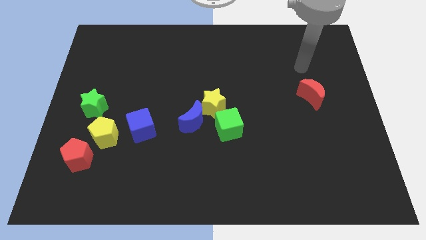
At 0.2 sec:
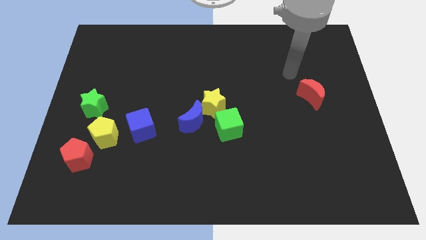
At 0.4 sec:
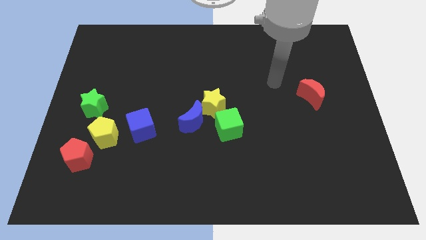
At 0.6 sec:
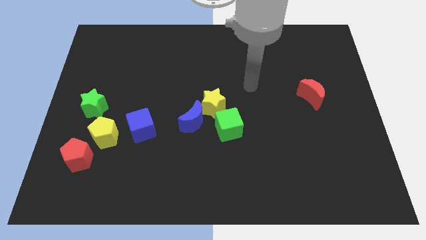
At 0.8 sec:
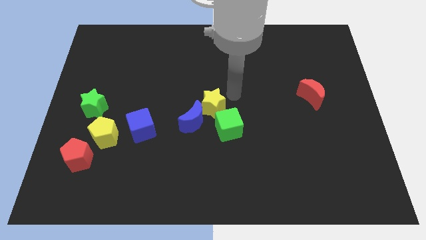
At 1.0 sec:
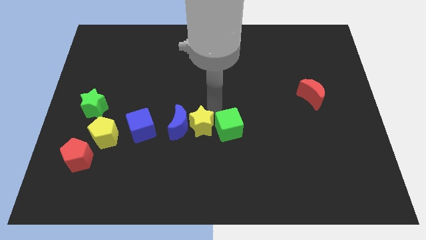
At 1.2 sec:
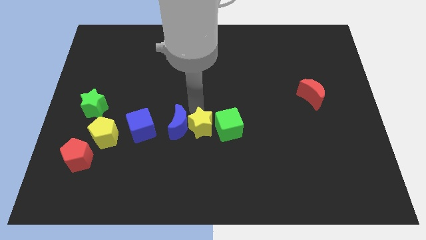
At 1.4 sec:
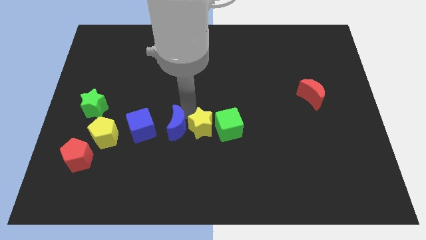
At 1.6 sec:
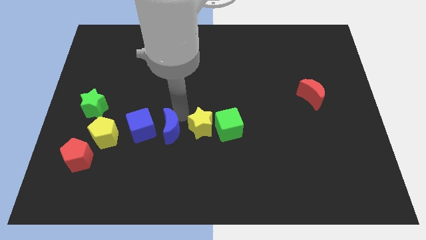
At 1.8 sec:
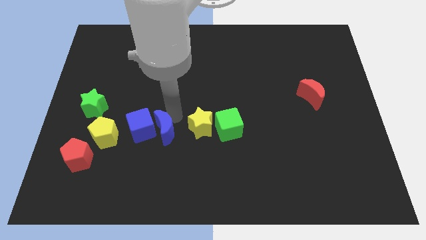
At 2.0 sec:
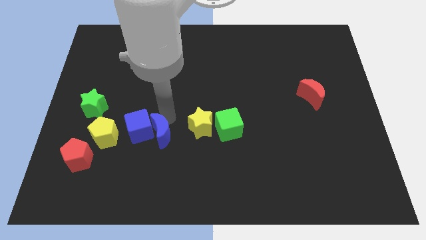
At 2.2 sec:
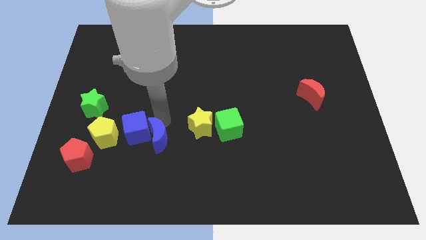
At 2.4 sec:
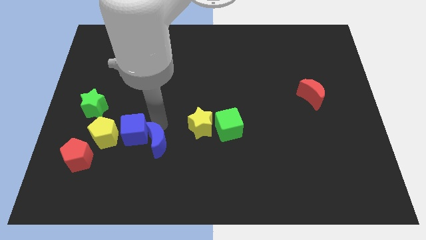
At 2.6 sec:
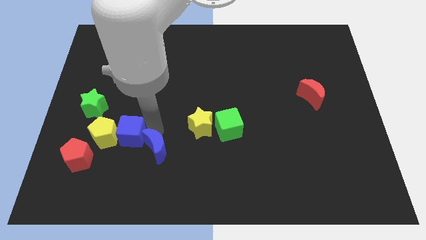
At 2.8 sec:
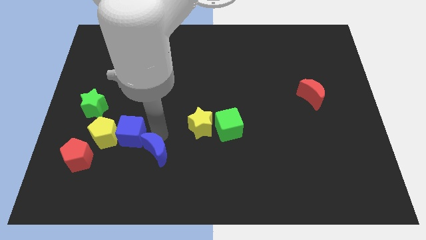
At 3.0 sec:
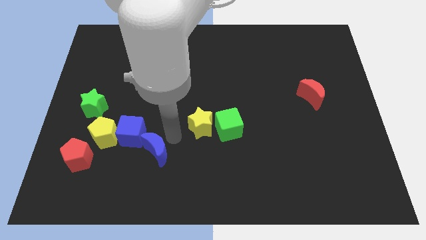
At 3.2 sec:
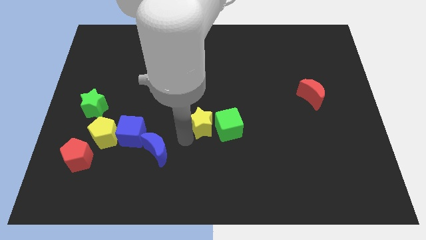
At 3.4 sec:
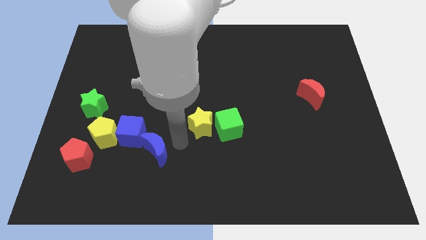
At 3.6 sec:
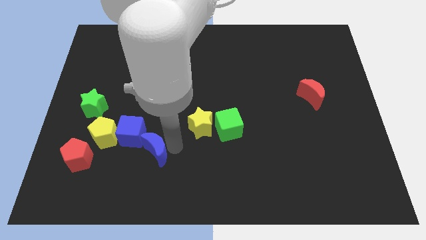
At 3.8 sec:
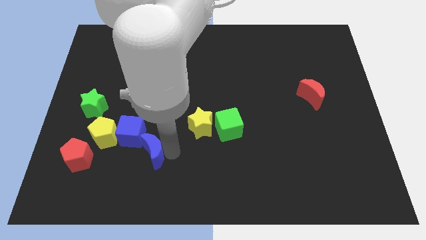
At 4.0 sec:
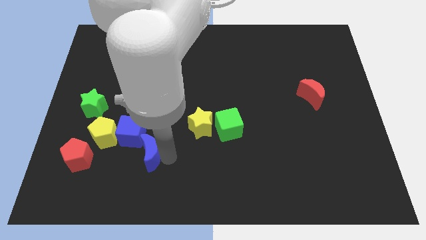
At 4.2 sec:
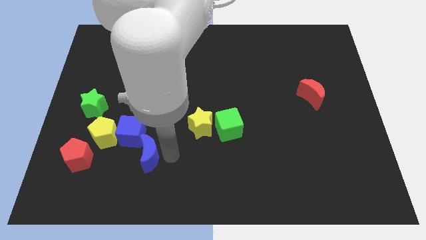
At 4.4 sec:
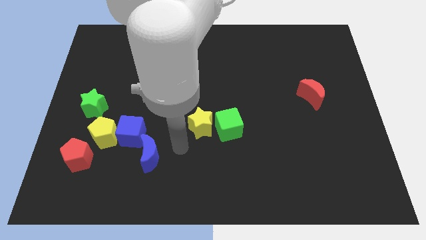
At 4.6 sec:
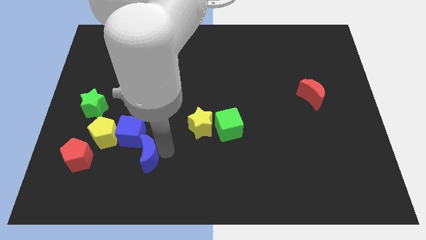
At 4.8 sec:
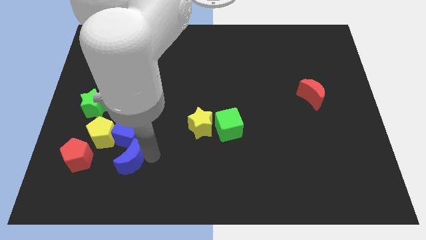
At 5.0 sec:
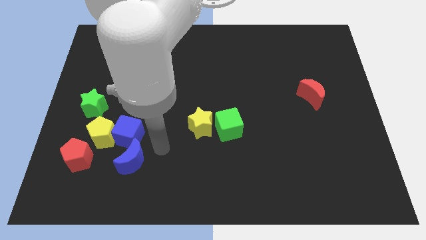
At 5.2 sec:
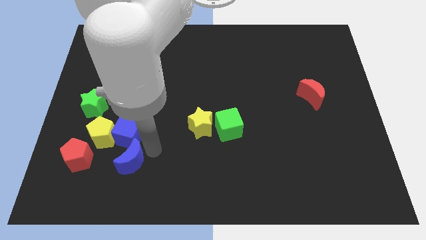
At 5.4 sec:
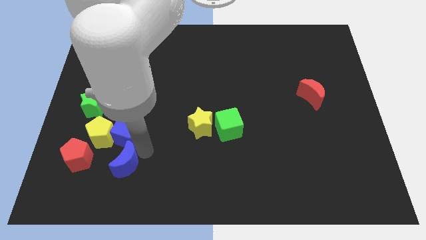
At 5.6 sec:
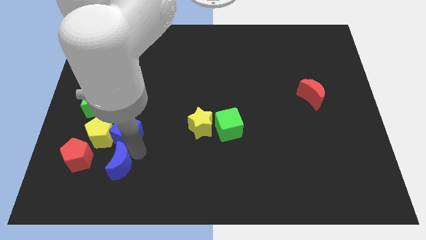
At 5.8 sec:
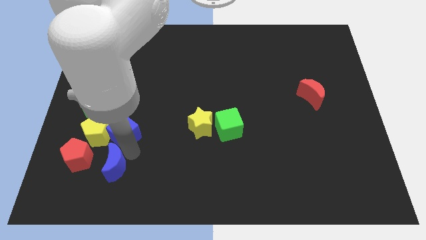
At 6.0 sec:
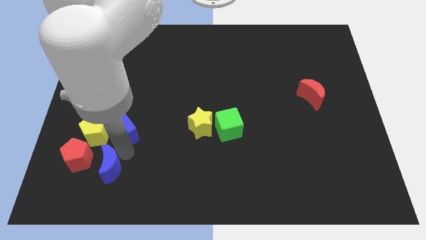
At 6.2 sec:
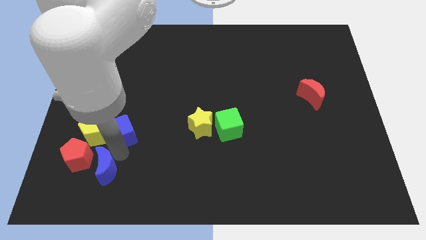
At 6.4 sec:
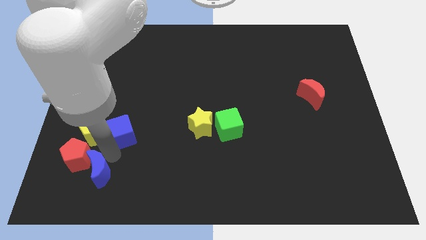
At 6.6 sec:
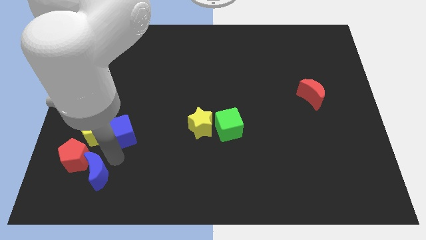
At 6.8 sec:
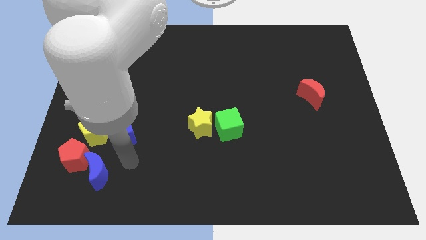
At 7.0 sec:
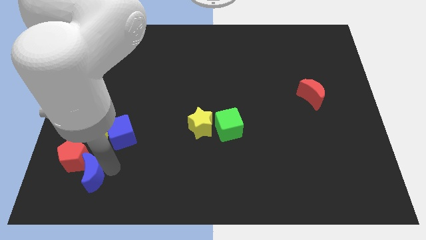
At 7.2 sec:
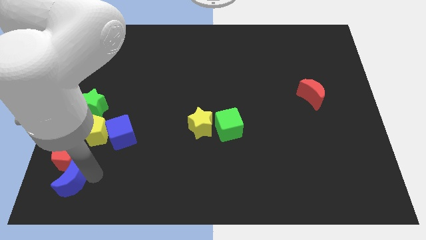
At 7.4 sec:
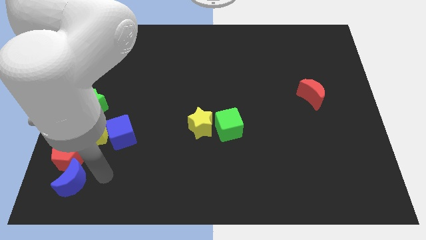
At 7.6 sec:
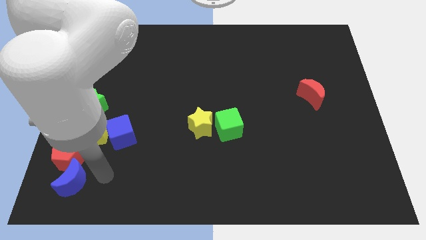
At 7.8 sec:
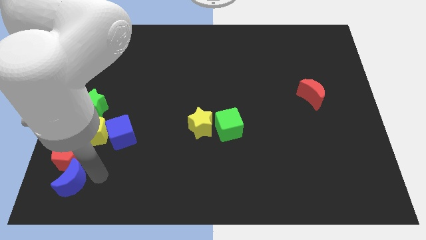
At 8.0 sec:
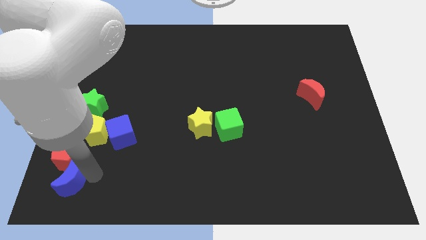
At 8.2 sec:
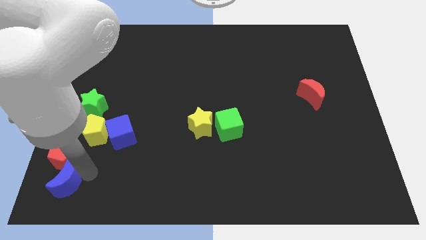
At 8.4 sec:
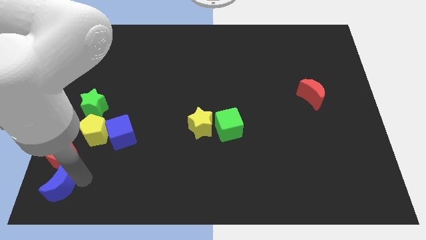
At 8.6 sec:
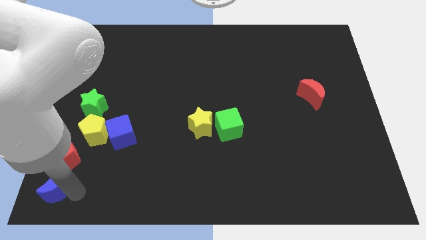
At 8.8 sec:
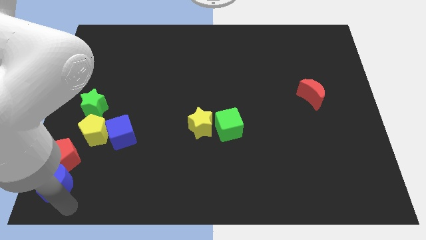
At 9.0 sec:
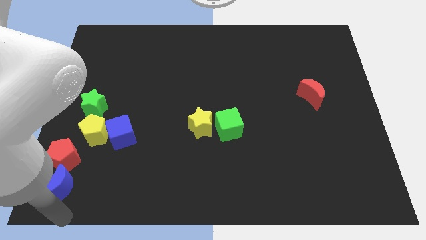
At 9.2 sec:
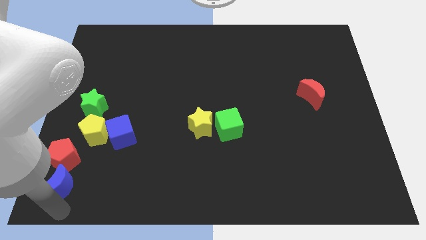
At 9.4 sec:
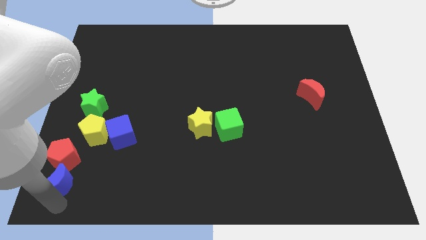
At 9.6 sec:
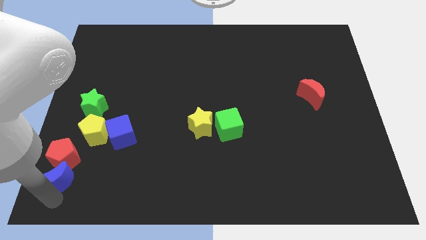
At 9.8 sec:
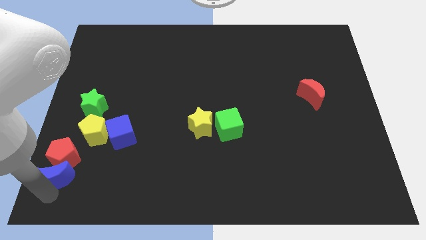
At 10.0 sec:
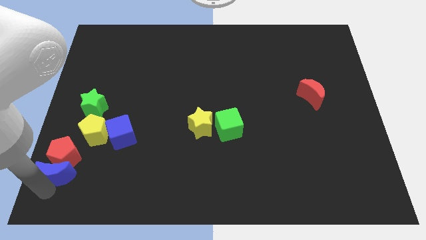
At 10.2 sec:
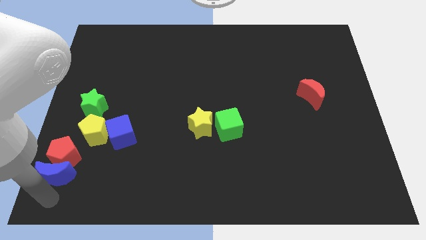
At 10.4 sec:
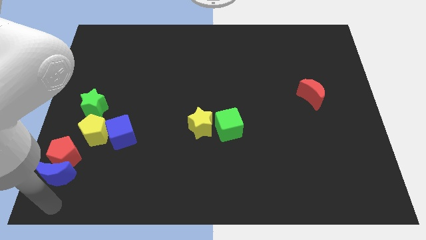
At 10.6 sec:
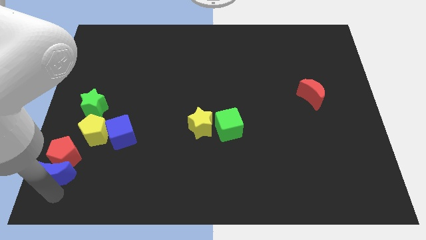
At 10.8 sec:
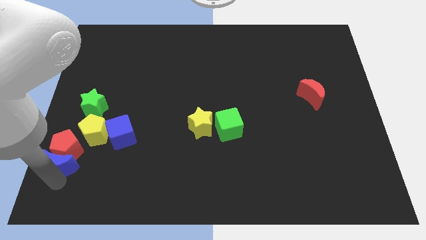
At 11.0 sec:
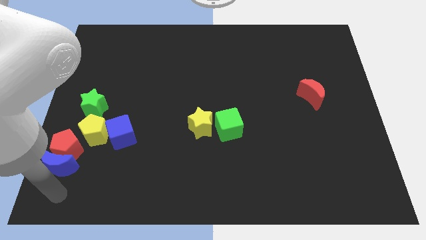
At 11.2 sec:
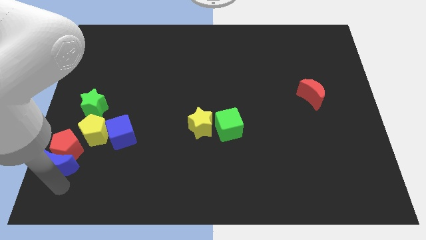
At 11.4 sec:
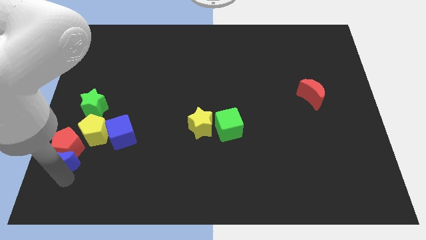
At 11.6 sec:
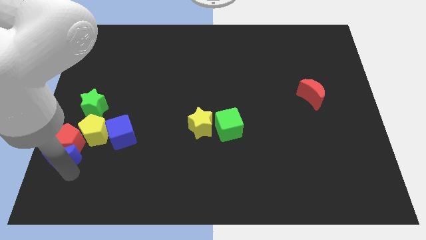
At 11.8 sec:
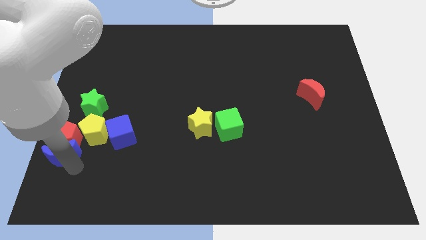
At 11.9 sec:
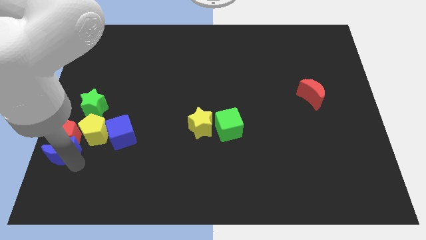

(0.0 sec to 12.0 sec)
put the blue moon to the left of the blue cube

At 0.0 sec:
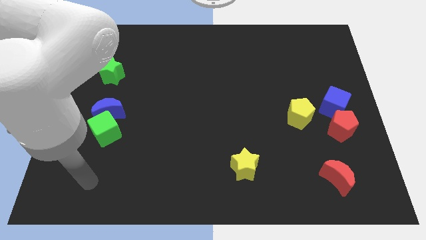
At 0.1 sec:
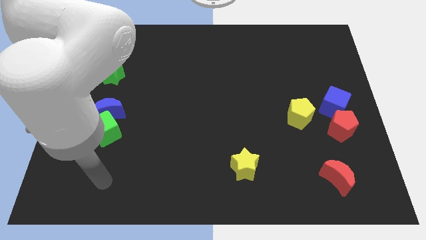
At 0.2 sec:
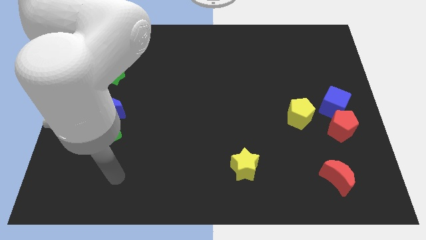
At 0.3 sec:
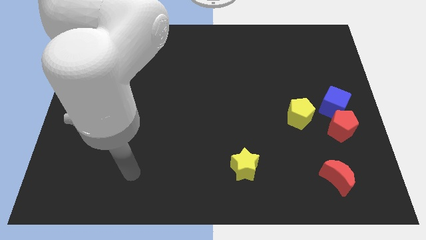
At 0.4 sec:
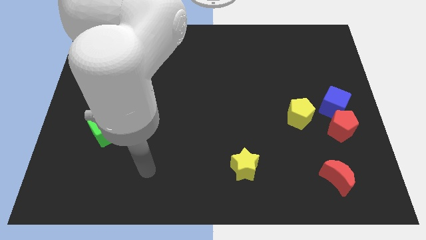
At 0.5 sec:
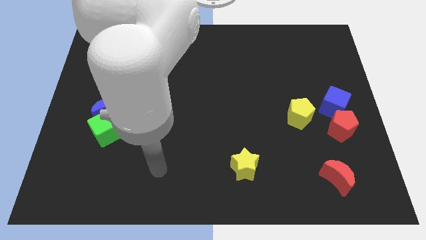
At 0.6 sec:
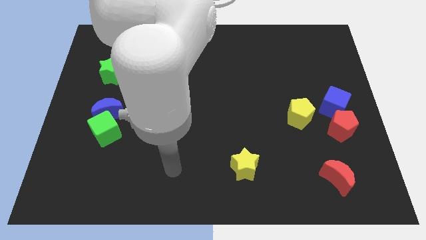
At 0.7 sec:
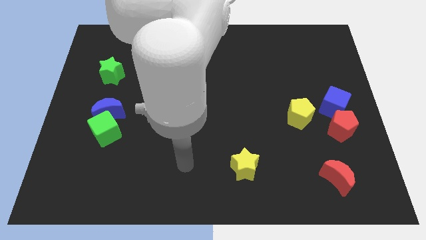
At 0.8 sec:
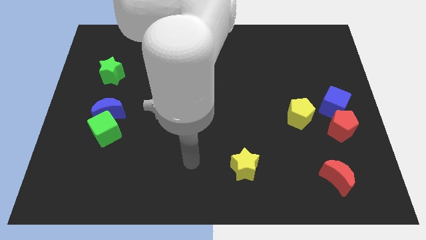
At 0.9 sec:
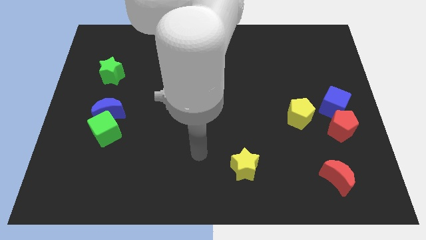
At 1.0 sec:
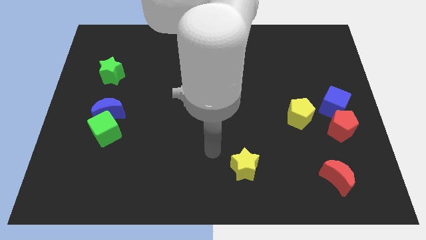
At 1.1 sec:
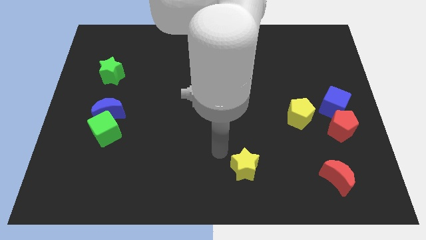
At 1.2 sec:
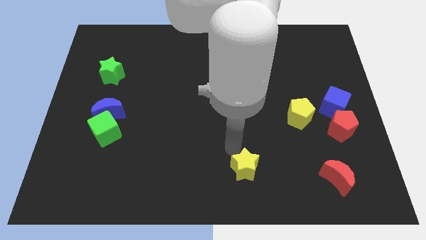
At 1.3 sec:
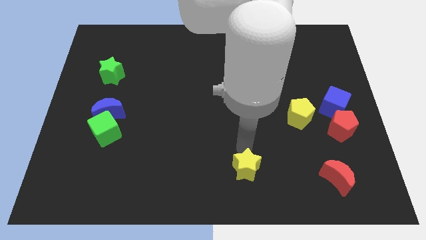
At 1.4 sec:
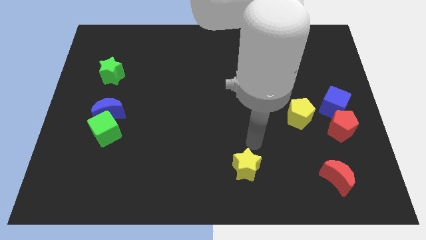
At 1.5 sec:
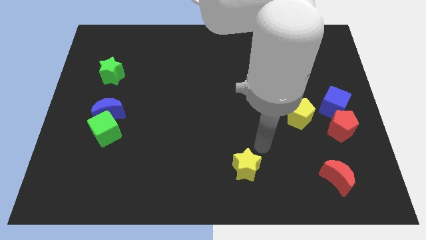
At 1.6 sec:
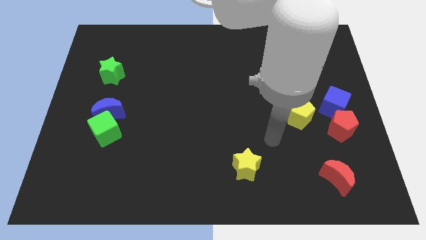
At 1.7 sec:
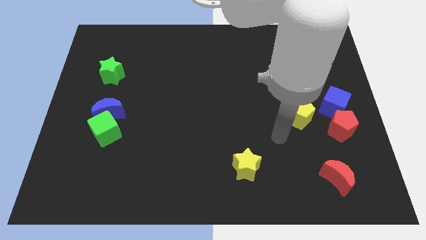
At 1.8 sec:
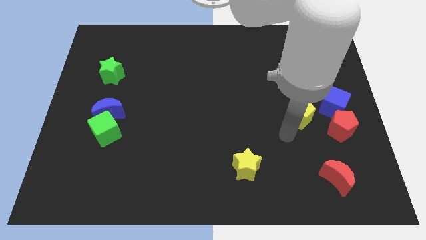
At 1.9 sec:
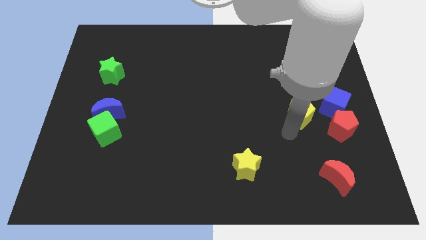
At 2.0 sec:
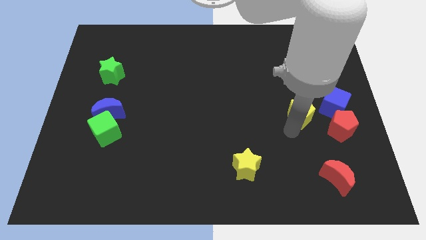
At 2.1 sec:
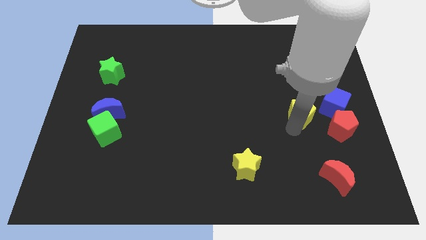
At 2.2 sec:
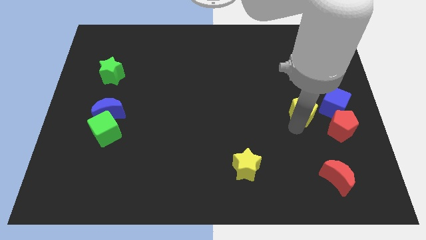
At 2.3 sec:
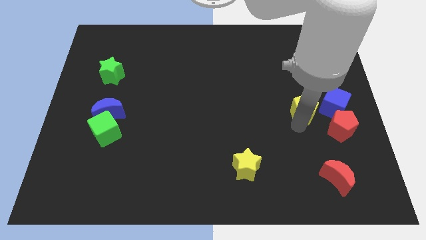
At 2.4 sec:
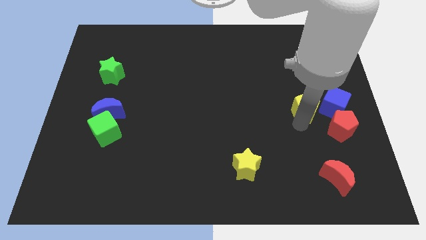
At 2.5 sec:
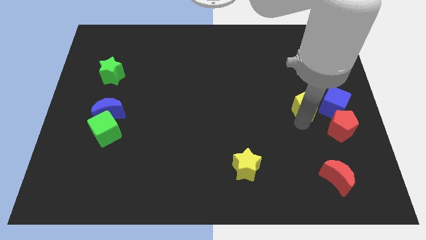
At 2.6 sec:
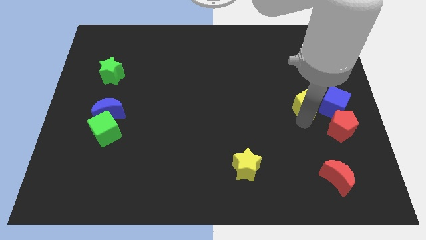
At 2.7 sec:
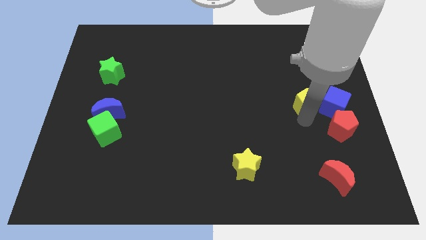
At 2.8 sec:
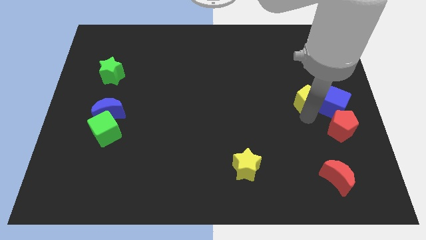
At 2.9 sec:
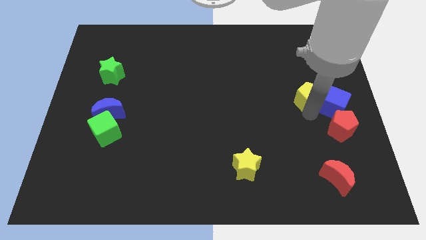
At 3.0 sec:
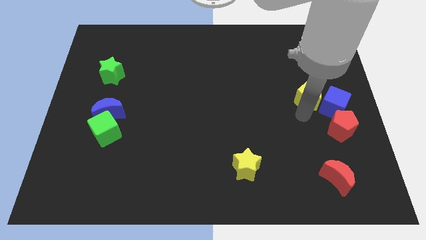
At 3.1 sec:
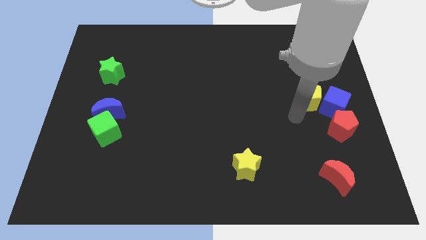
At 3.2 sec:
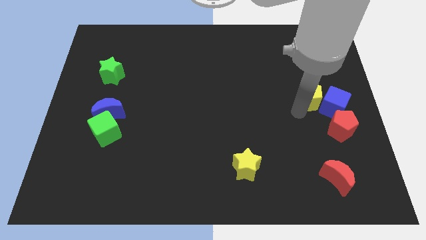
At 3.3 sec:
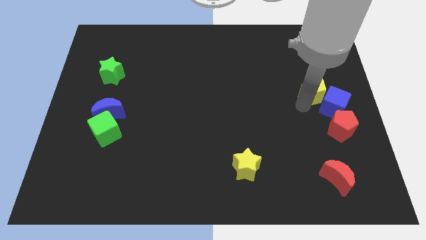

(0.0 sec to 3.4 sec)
push the yellow pentagon above the blue cube
